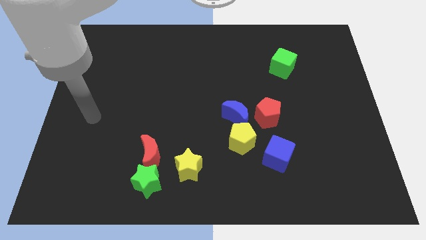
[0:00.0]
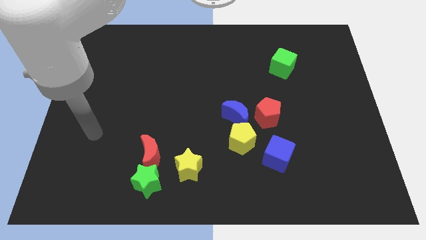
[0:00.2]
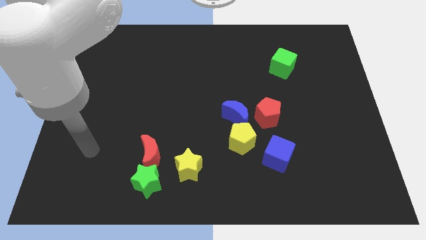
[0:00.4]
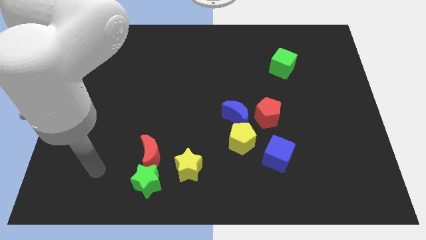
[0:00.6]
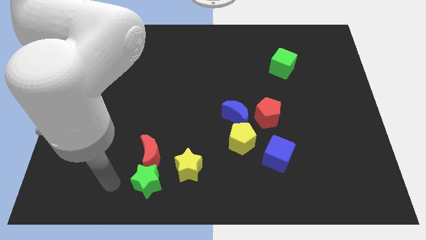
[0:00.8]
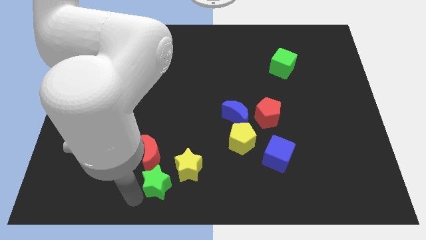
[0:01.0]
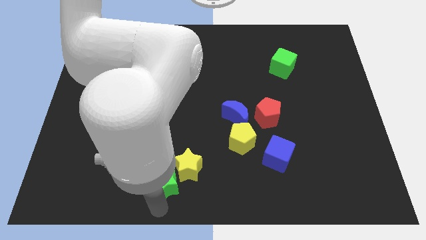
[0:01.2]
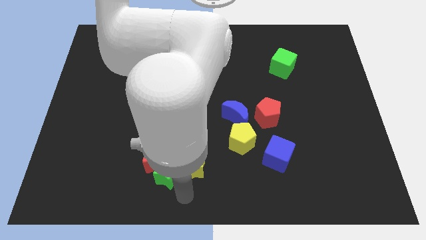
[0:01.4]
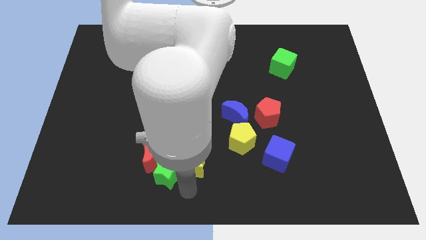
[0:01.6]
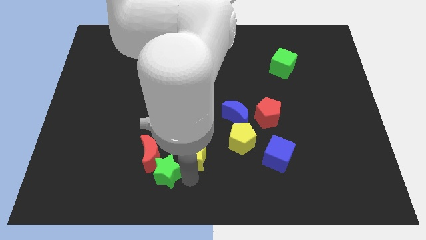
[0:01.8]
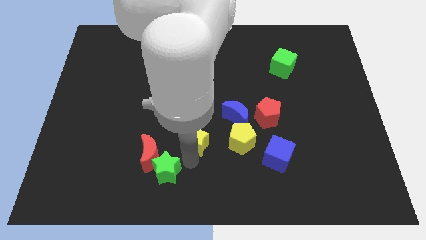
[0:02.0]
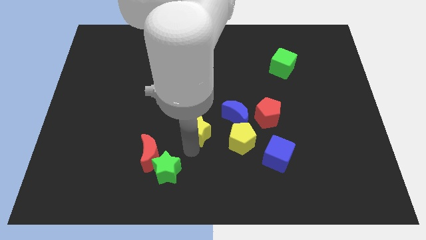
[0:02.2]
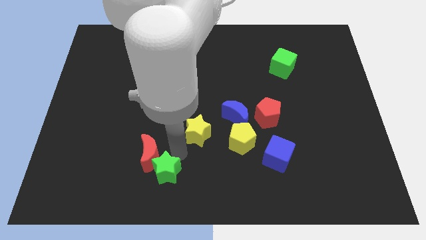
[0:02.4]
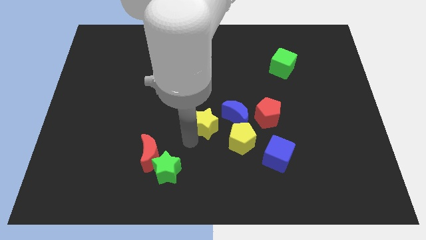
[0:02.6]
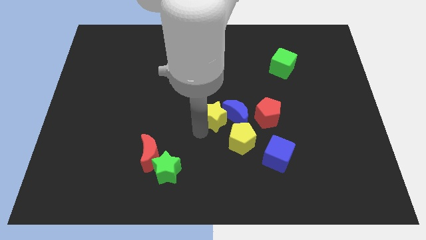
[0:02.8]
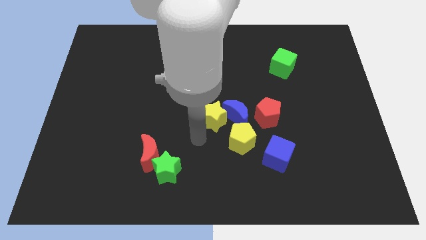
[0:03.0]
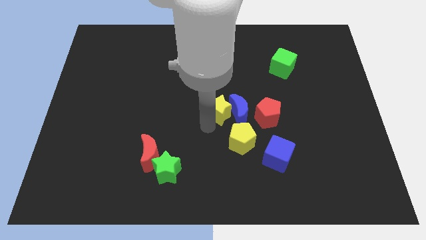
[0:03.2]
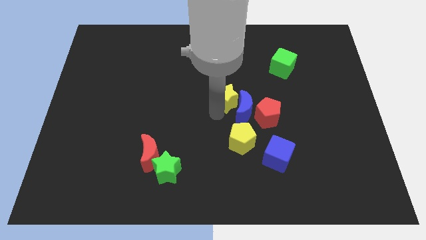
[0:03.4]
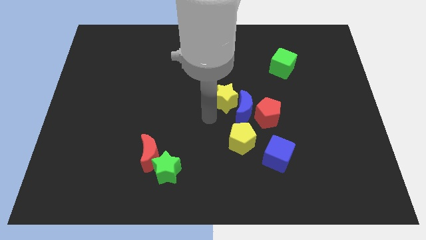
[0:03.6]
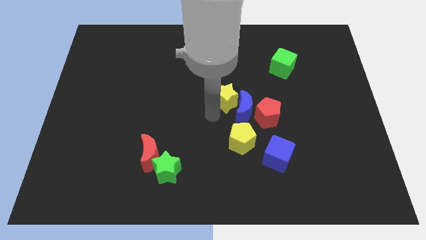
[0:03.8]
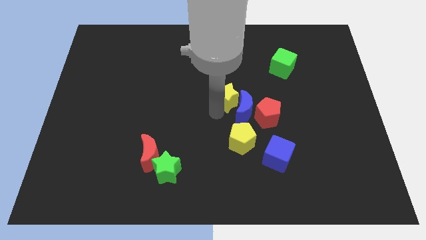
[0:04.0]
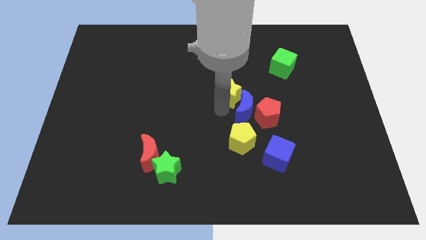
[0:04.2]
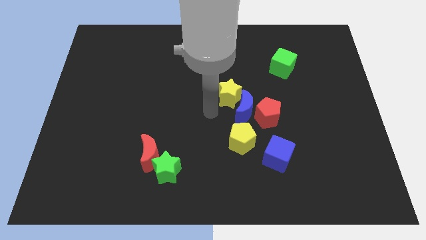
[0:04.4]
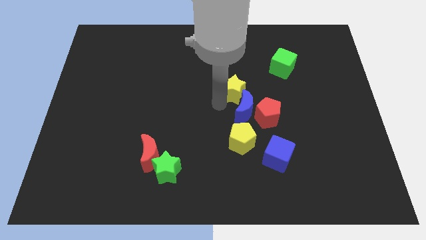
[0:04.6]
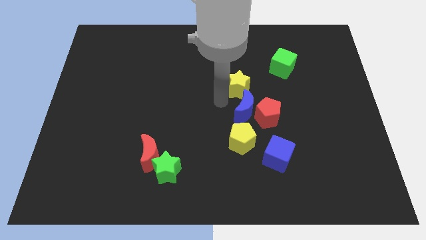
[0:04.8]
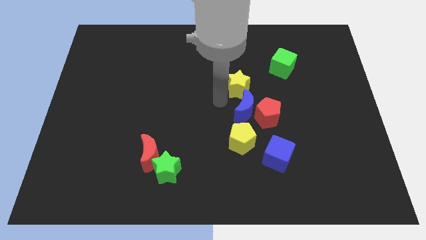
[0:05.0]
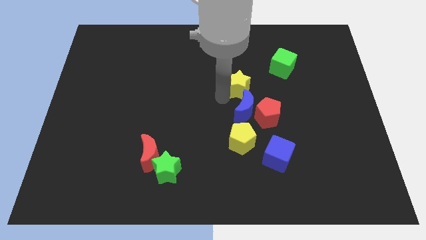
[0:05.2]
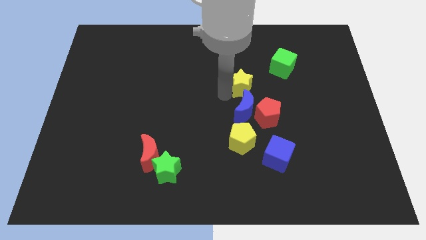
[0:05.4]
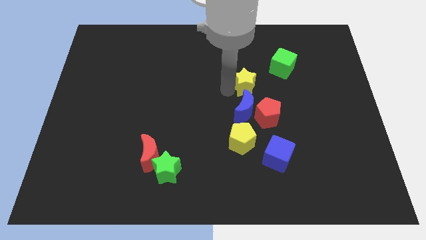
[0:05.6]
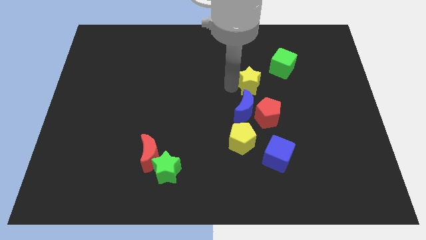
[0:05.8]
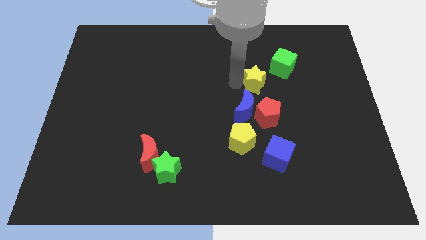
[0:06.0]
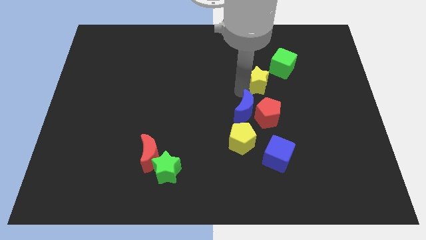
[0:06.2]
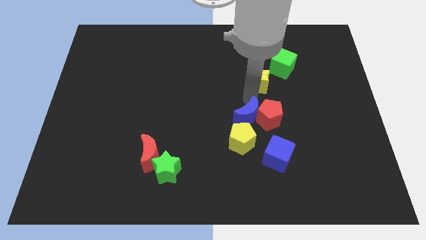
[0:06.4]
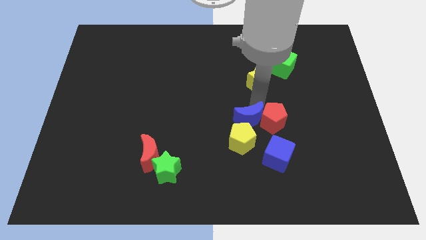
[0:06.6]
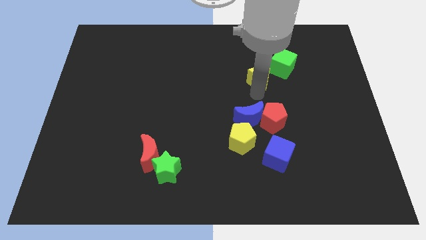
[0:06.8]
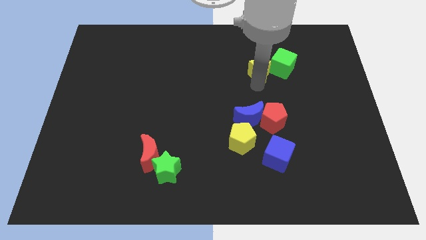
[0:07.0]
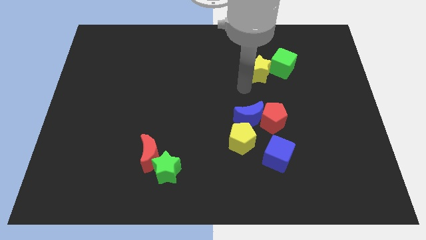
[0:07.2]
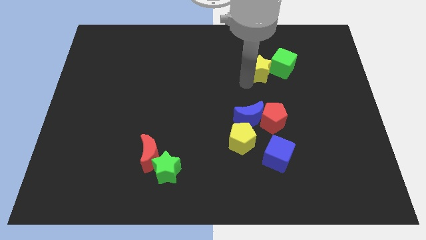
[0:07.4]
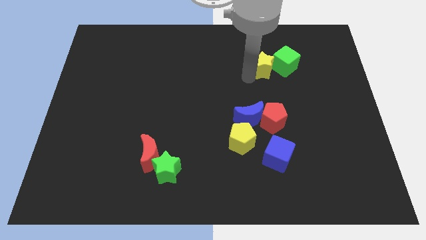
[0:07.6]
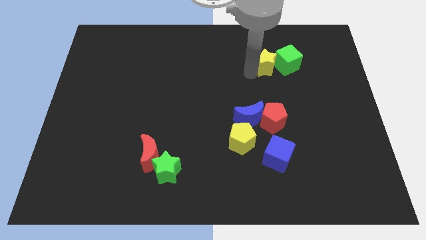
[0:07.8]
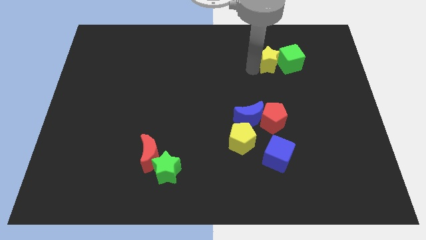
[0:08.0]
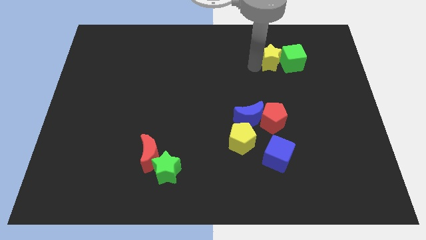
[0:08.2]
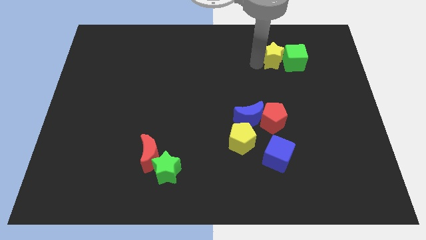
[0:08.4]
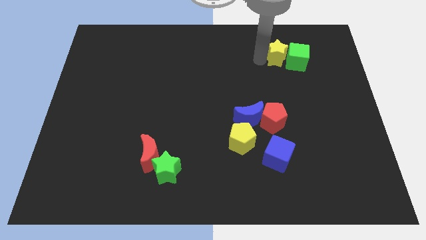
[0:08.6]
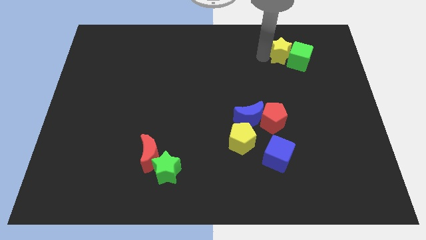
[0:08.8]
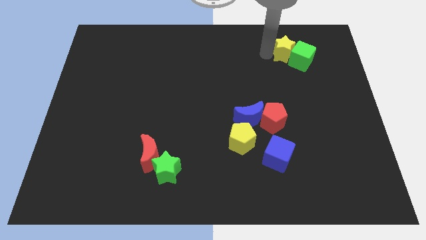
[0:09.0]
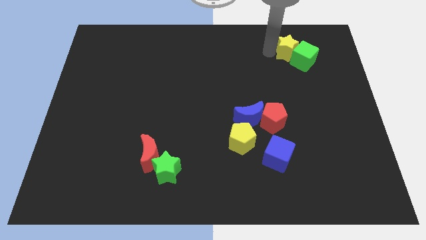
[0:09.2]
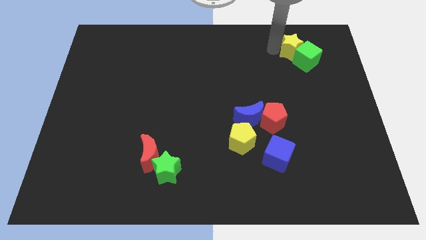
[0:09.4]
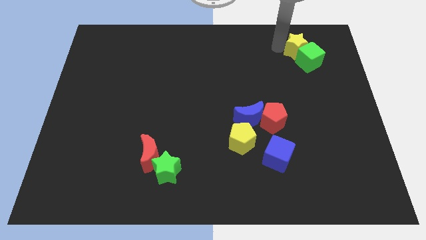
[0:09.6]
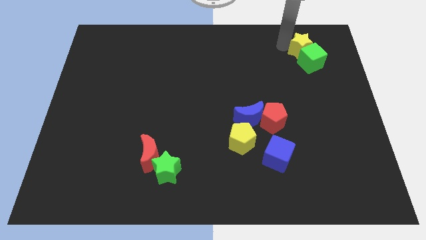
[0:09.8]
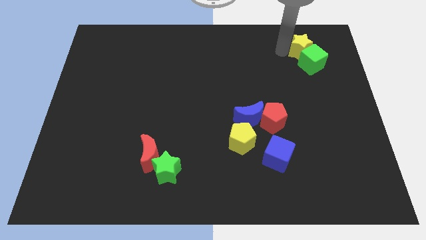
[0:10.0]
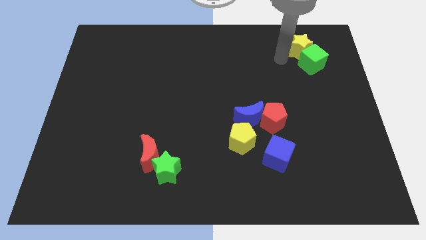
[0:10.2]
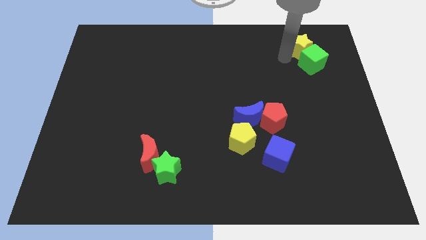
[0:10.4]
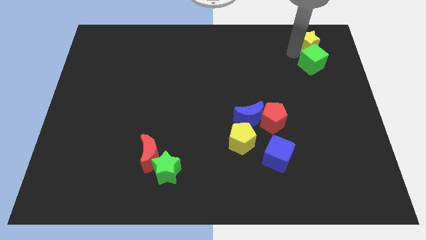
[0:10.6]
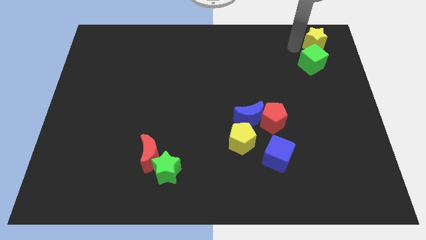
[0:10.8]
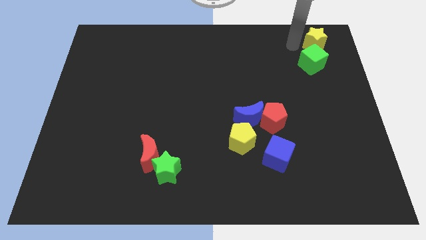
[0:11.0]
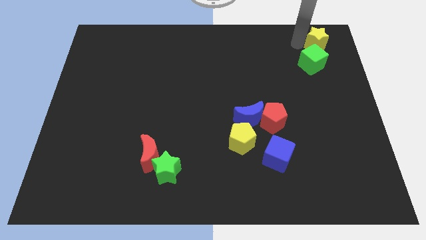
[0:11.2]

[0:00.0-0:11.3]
push the yellow star to the top right
